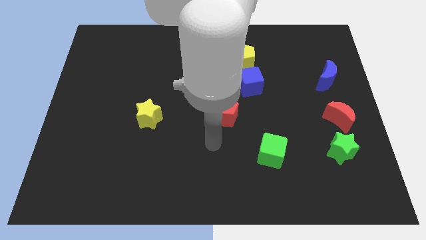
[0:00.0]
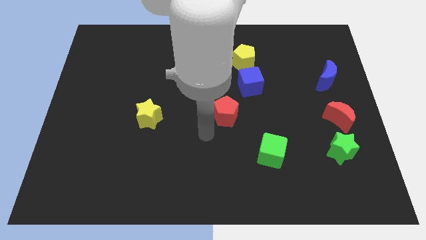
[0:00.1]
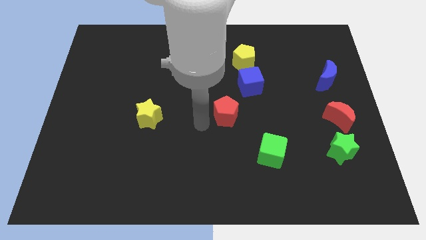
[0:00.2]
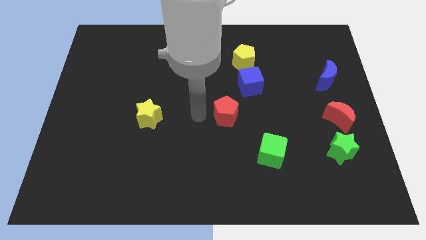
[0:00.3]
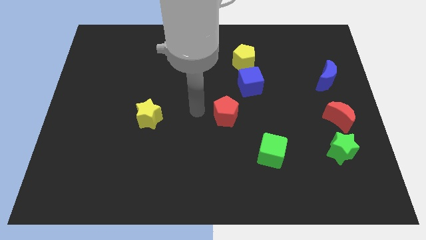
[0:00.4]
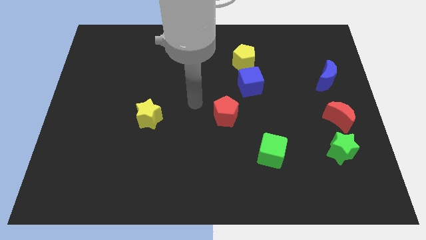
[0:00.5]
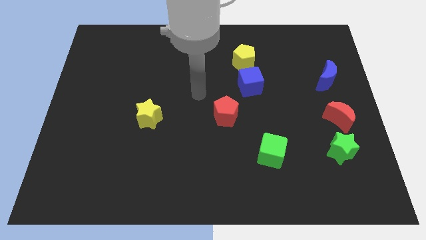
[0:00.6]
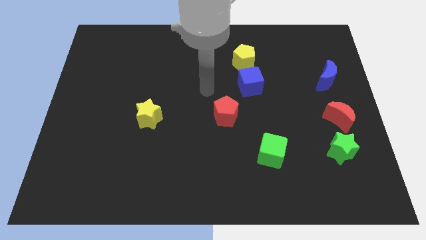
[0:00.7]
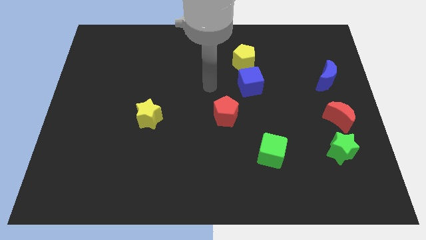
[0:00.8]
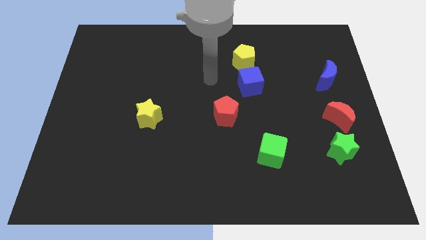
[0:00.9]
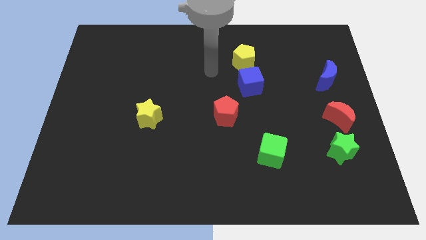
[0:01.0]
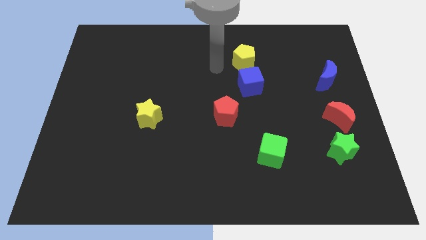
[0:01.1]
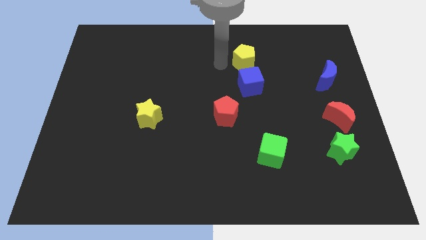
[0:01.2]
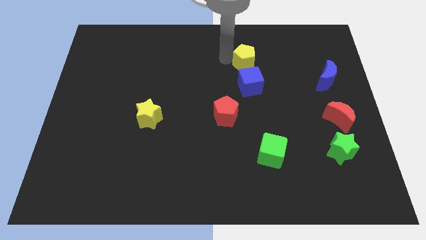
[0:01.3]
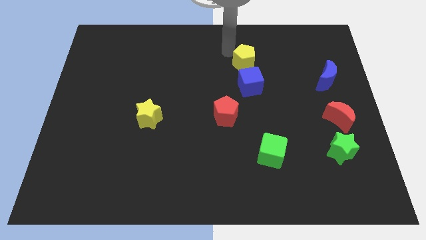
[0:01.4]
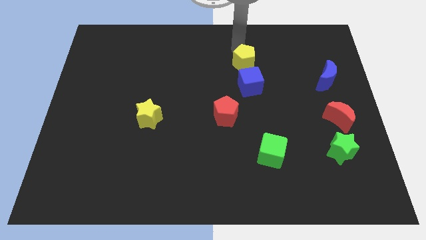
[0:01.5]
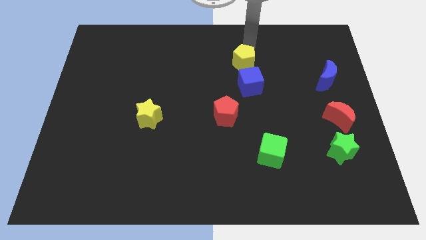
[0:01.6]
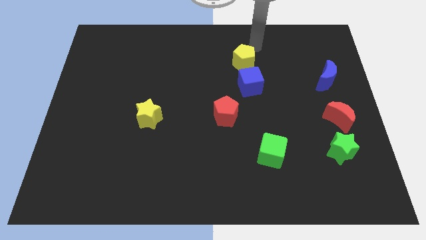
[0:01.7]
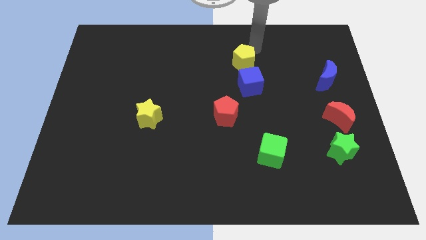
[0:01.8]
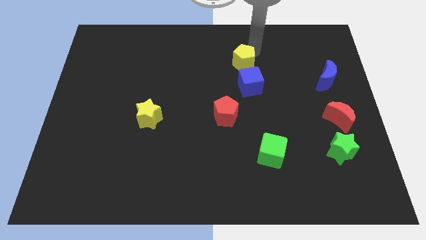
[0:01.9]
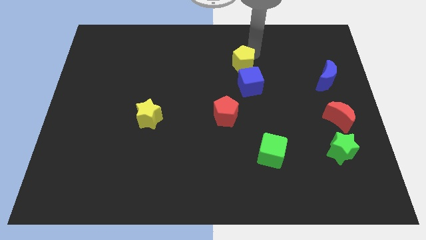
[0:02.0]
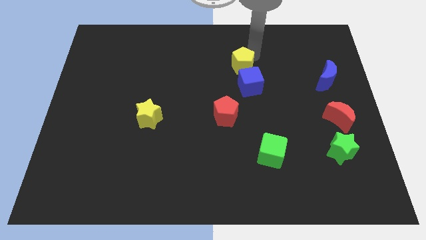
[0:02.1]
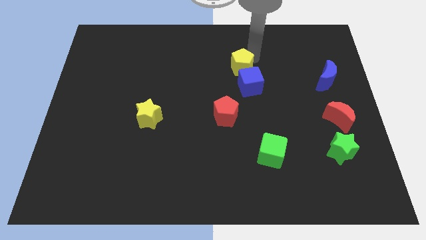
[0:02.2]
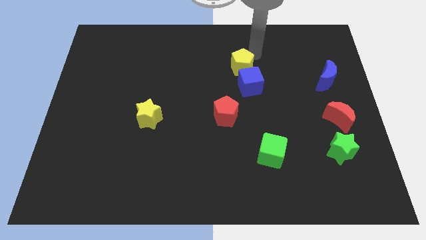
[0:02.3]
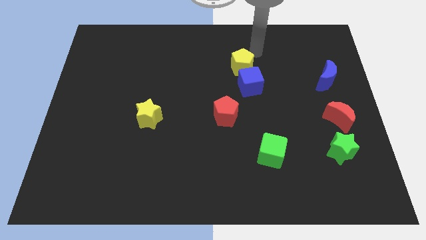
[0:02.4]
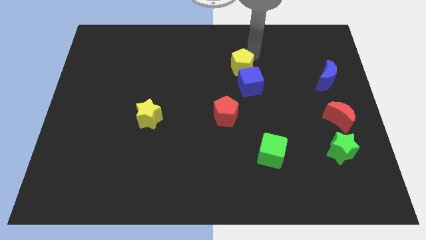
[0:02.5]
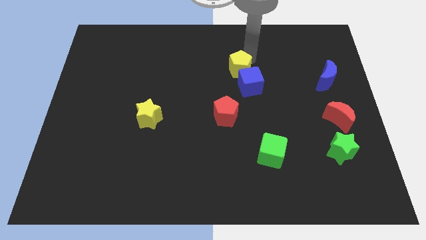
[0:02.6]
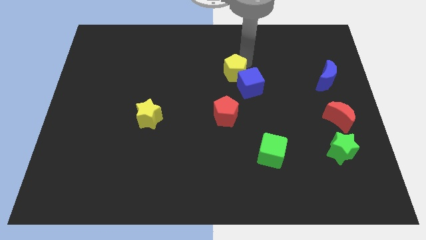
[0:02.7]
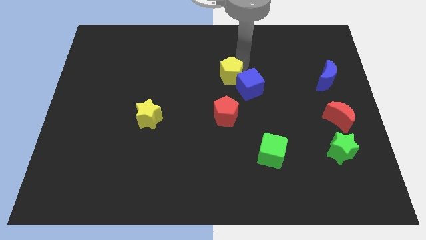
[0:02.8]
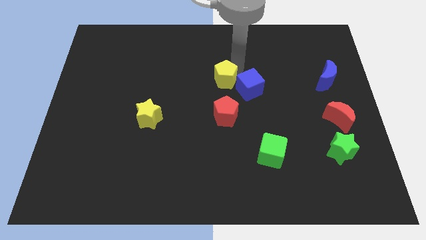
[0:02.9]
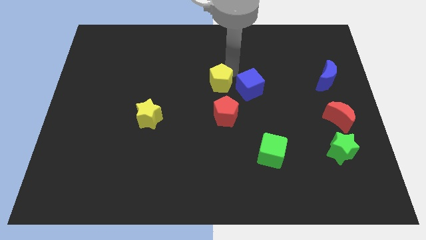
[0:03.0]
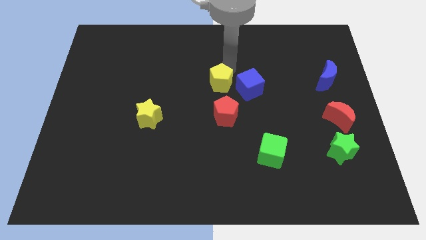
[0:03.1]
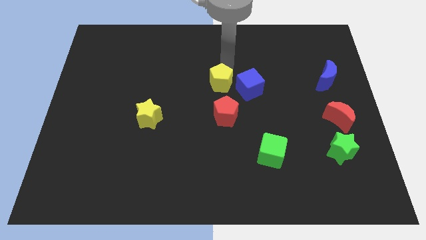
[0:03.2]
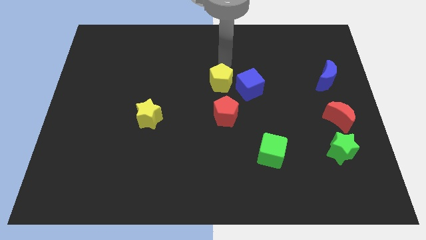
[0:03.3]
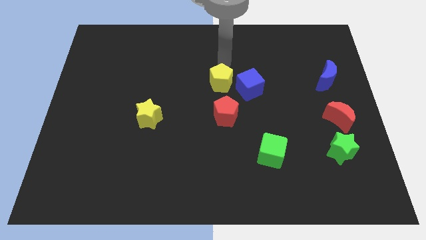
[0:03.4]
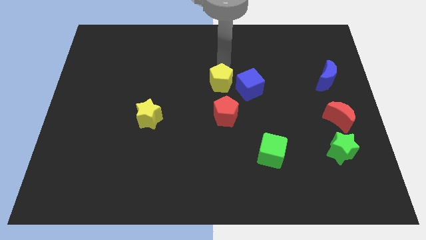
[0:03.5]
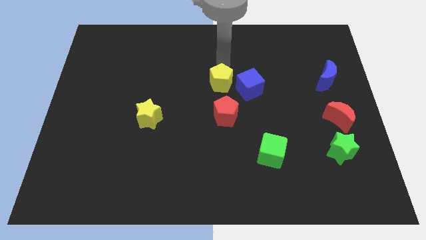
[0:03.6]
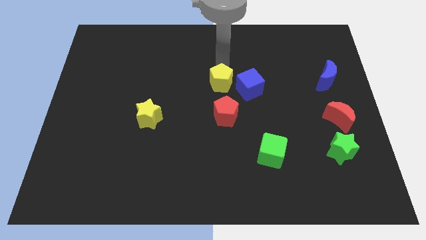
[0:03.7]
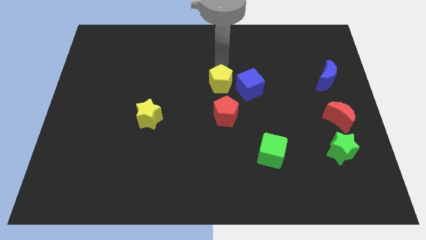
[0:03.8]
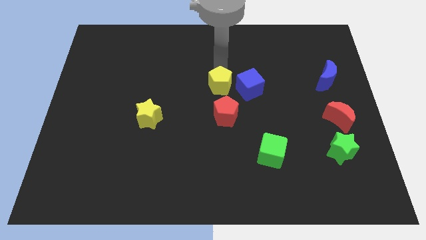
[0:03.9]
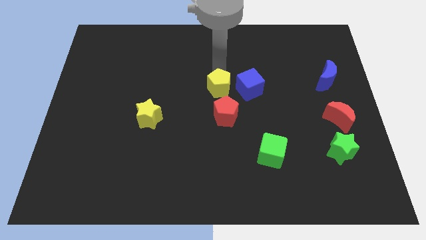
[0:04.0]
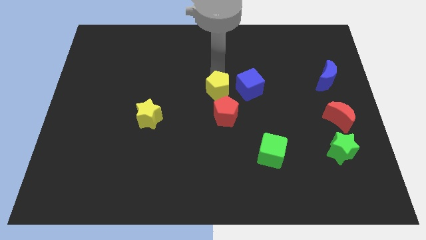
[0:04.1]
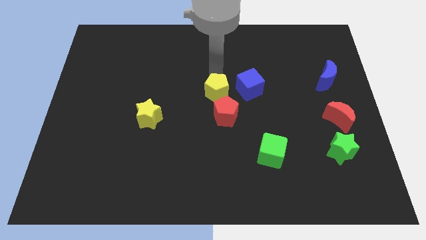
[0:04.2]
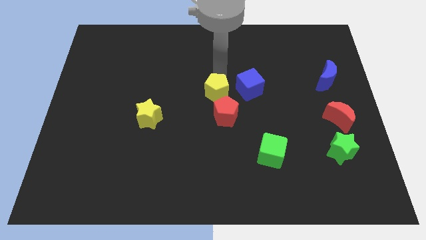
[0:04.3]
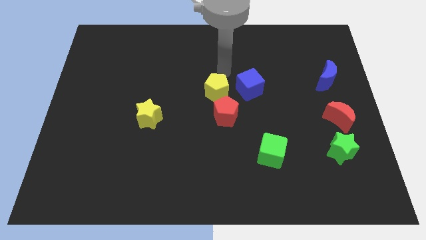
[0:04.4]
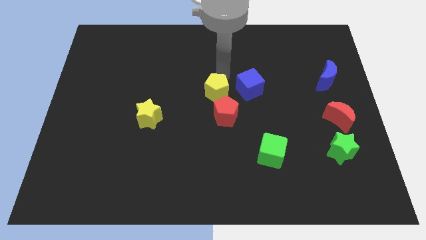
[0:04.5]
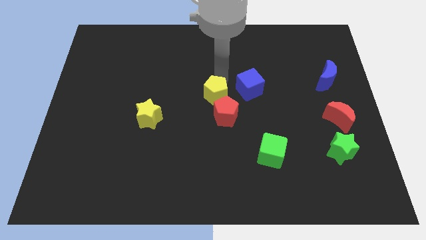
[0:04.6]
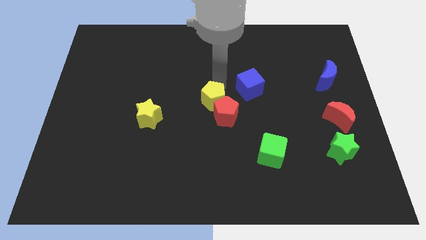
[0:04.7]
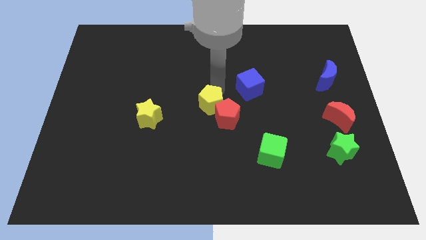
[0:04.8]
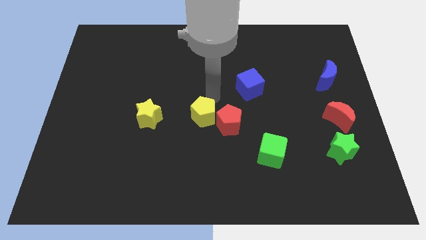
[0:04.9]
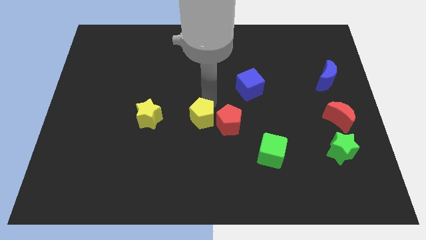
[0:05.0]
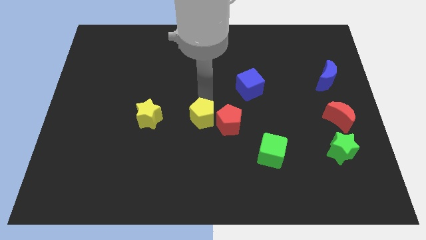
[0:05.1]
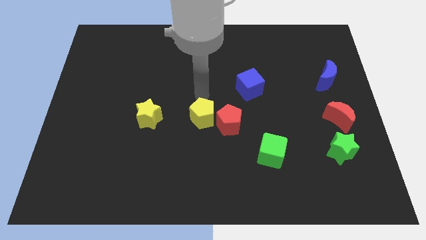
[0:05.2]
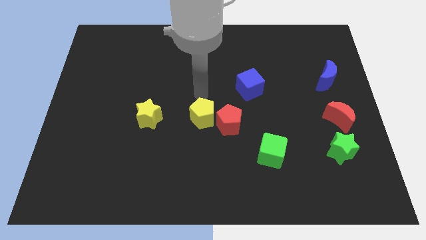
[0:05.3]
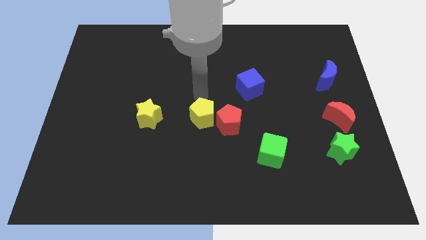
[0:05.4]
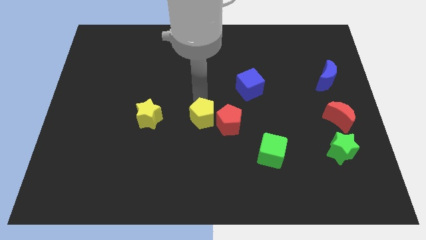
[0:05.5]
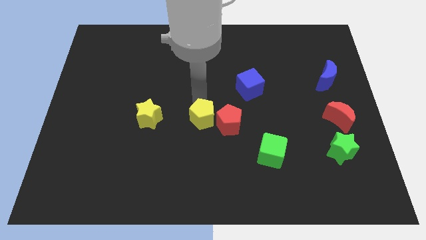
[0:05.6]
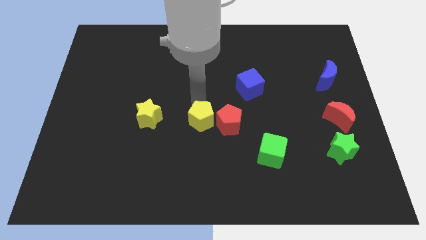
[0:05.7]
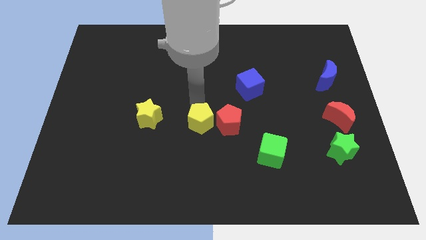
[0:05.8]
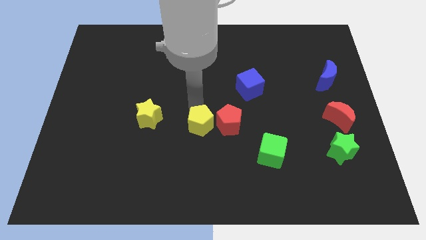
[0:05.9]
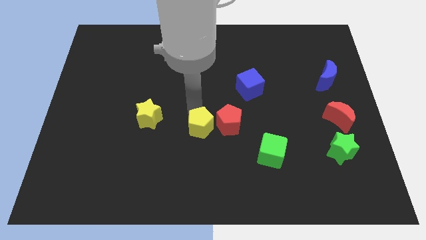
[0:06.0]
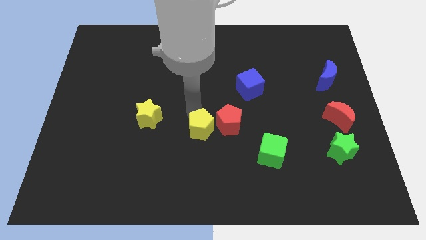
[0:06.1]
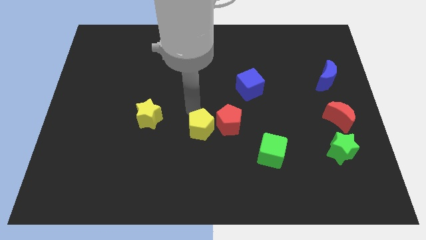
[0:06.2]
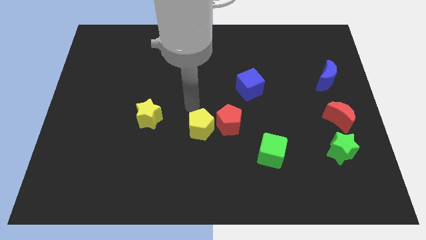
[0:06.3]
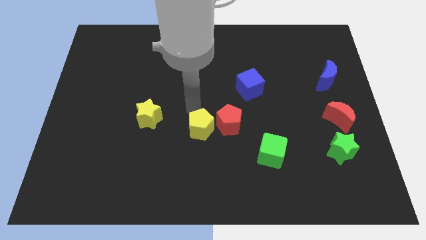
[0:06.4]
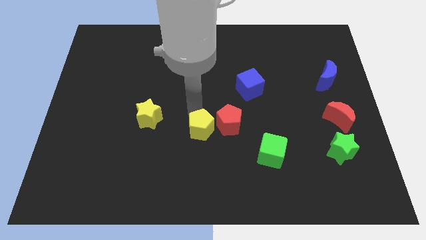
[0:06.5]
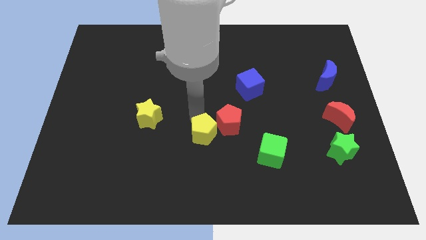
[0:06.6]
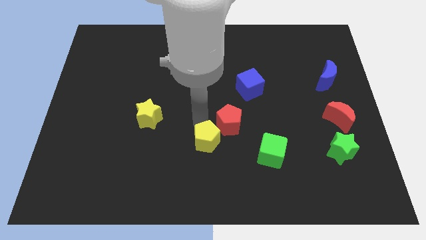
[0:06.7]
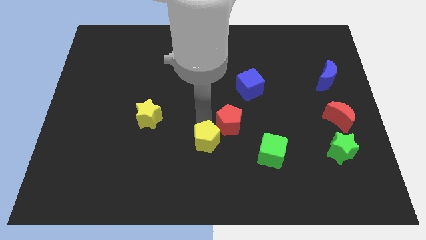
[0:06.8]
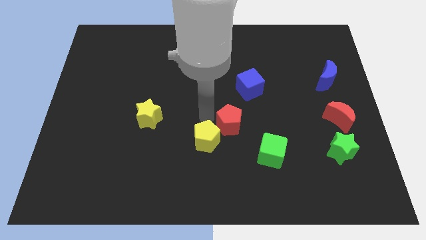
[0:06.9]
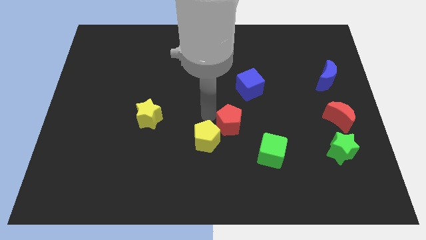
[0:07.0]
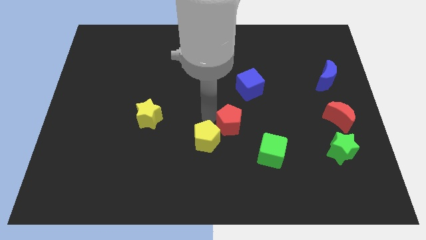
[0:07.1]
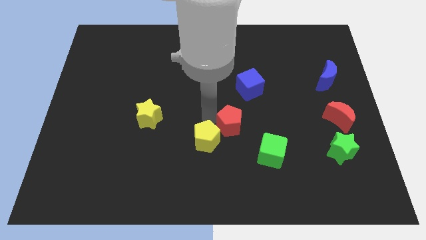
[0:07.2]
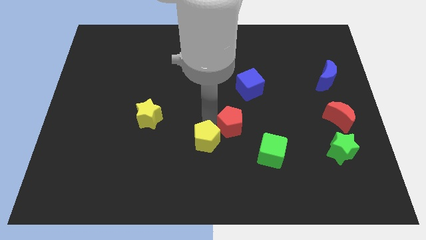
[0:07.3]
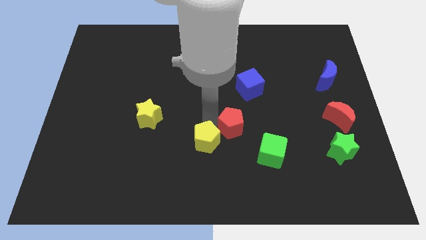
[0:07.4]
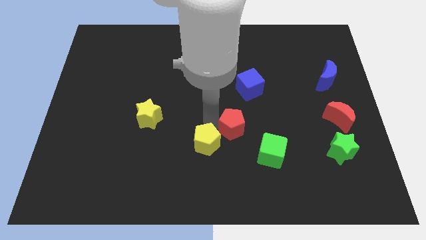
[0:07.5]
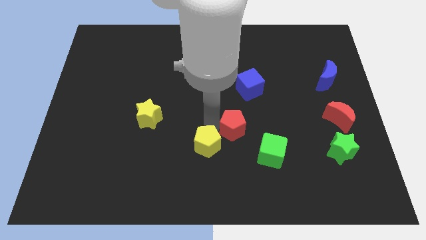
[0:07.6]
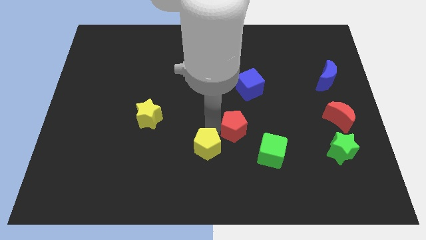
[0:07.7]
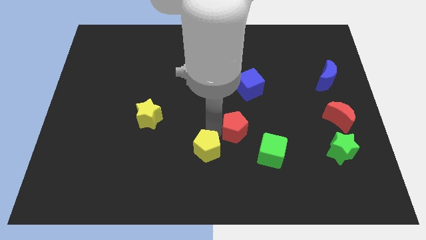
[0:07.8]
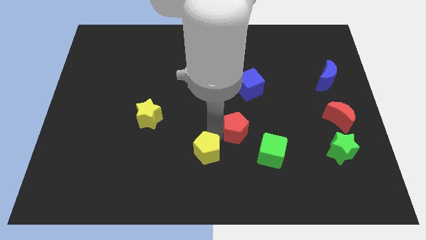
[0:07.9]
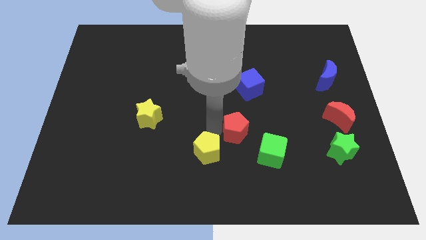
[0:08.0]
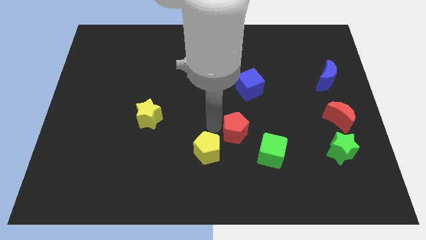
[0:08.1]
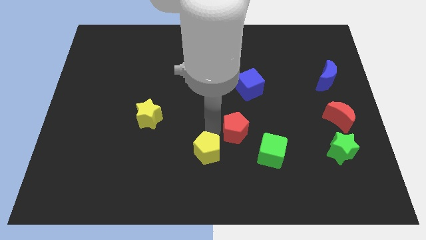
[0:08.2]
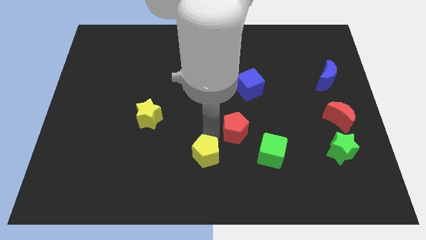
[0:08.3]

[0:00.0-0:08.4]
push the yellow pentagon to the bottom
